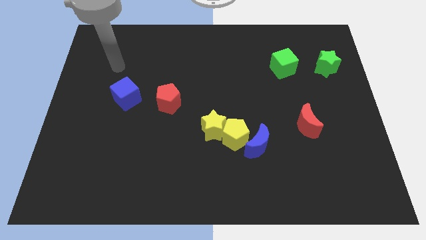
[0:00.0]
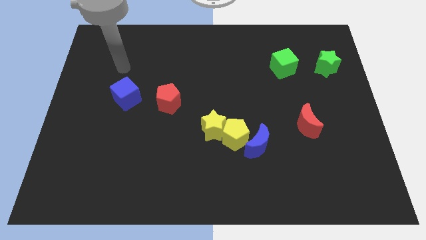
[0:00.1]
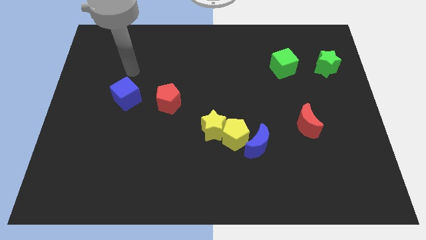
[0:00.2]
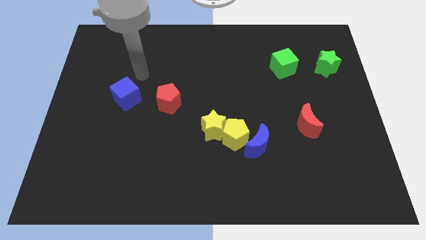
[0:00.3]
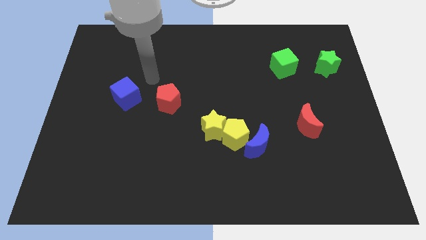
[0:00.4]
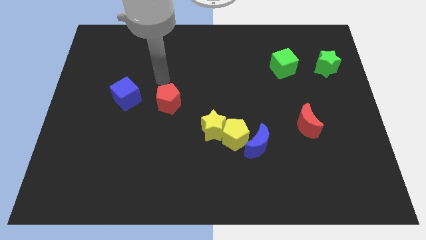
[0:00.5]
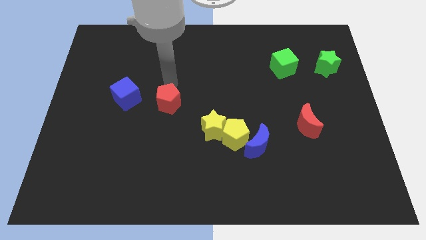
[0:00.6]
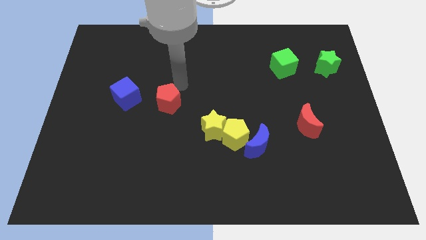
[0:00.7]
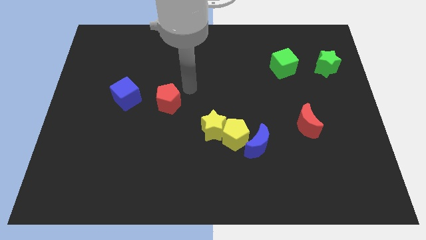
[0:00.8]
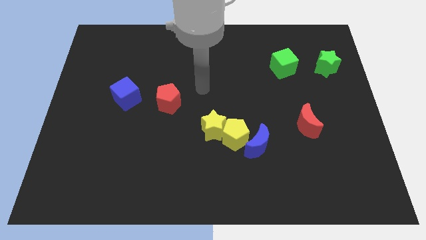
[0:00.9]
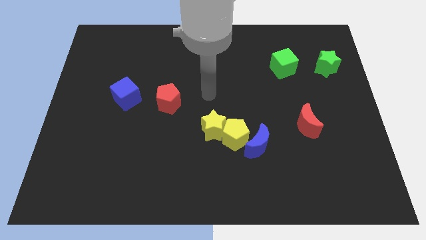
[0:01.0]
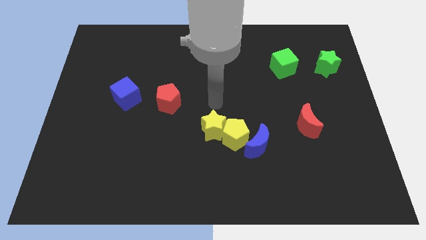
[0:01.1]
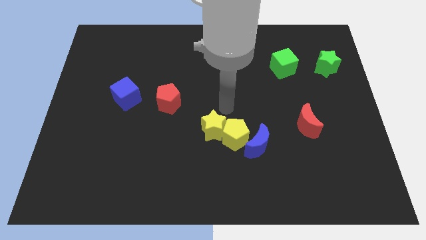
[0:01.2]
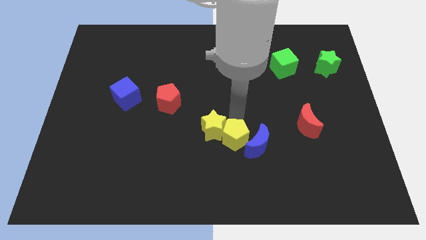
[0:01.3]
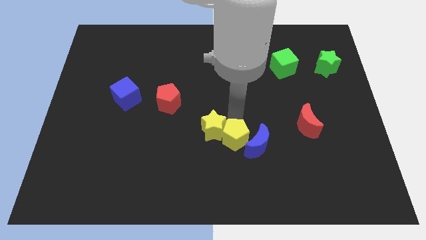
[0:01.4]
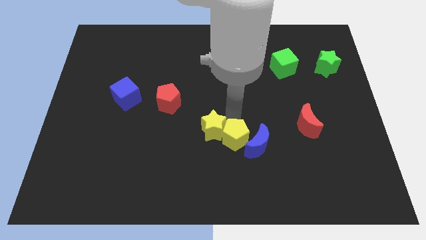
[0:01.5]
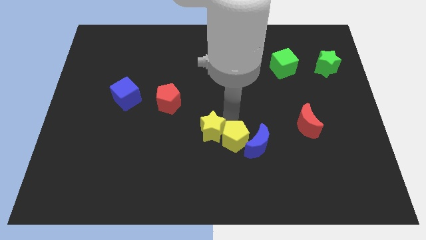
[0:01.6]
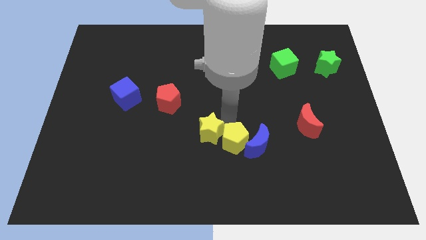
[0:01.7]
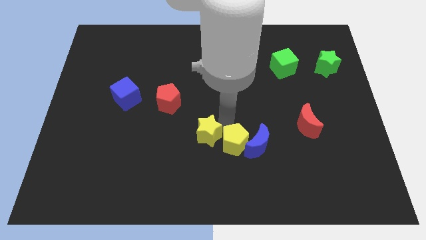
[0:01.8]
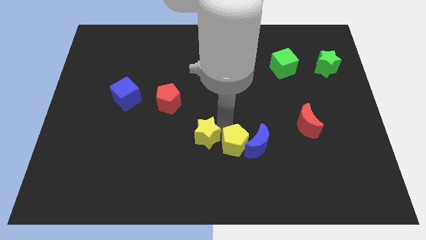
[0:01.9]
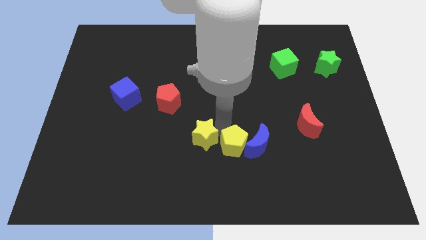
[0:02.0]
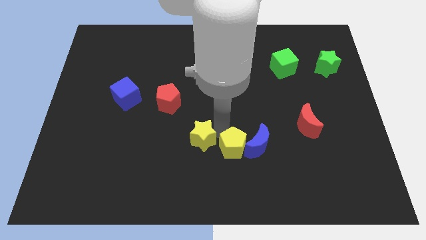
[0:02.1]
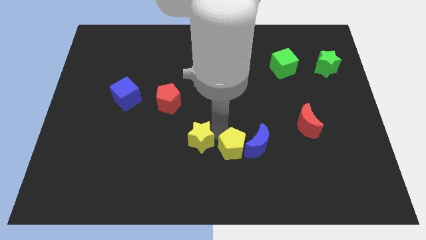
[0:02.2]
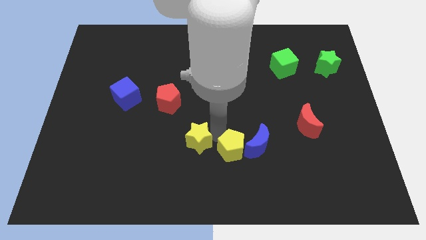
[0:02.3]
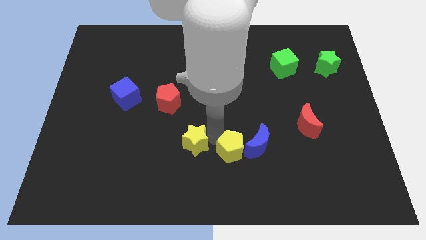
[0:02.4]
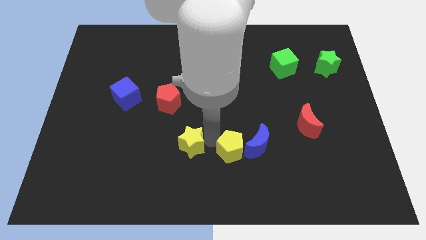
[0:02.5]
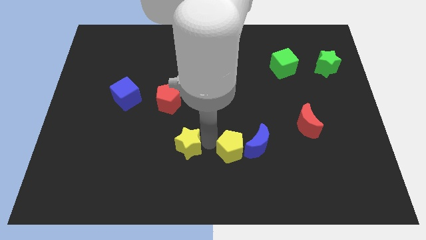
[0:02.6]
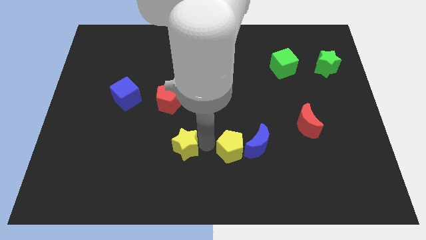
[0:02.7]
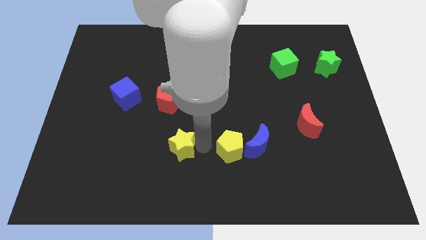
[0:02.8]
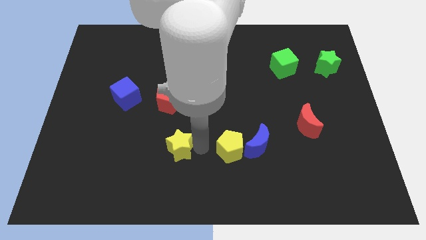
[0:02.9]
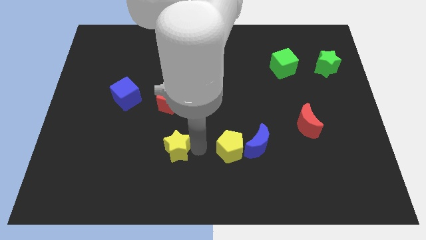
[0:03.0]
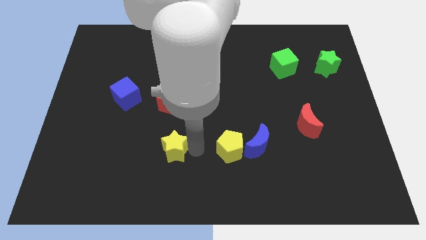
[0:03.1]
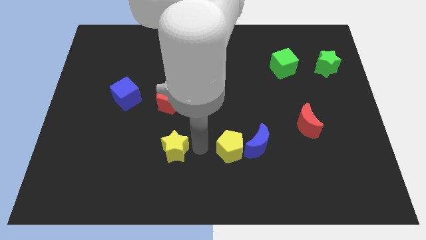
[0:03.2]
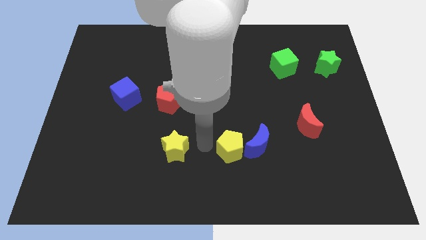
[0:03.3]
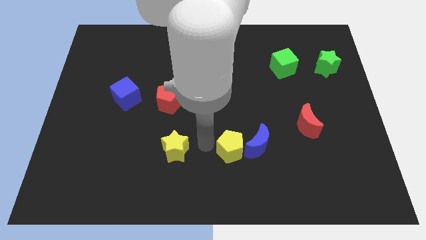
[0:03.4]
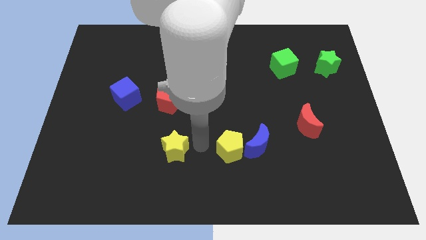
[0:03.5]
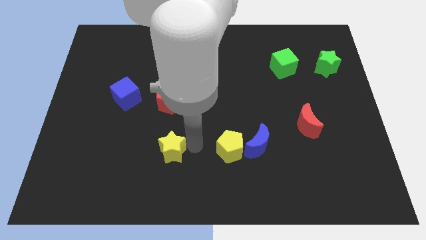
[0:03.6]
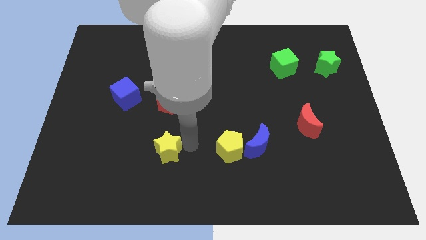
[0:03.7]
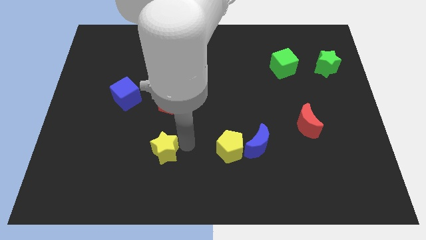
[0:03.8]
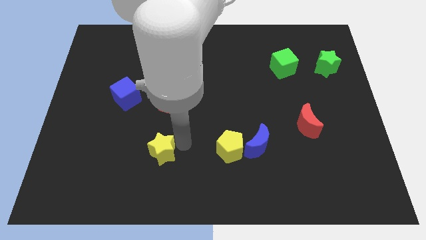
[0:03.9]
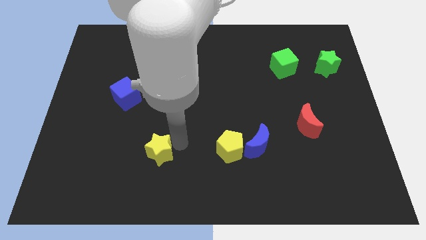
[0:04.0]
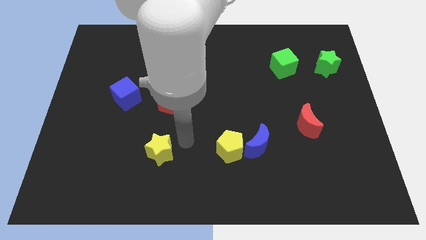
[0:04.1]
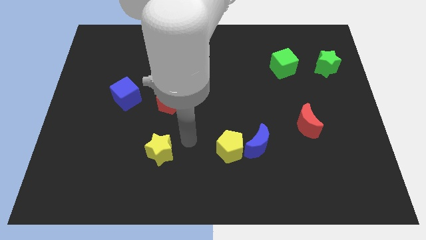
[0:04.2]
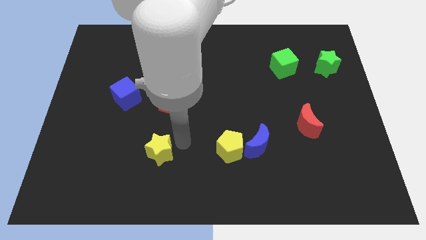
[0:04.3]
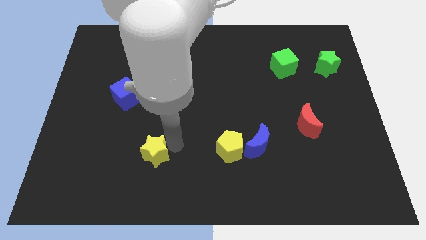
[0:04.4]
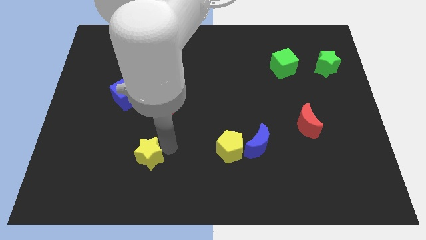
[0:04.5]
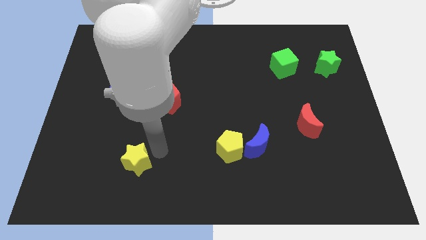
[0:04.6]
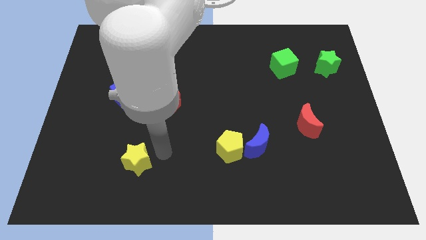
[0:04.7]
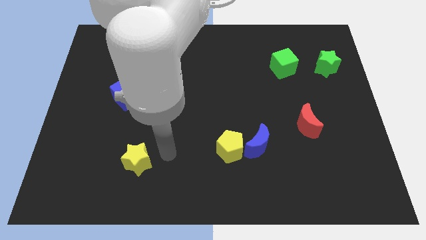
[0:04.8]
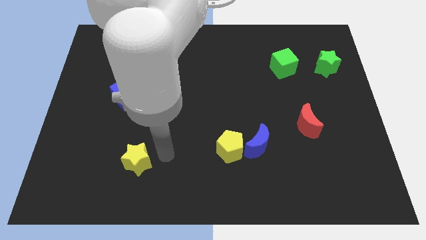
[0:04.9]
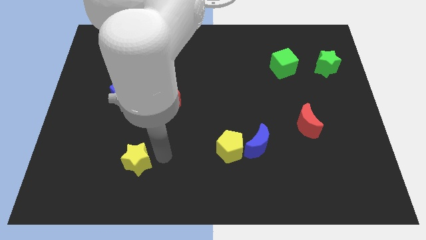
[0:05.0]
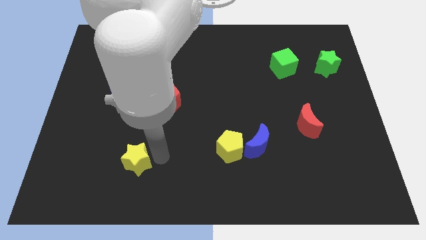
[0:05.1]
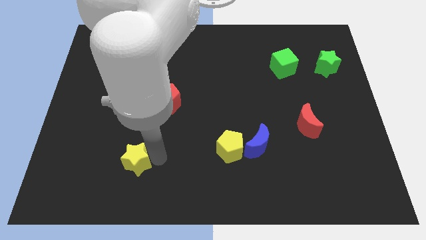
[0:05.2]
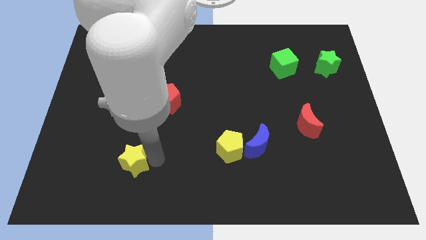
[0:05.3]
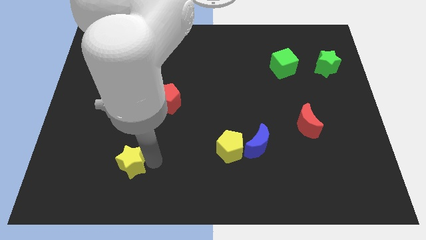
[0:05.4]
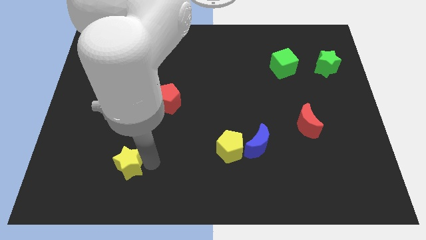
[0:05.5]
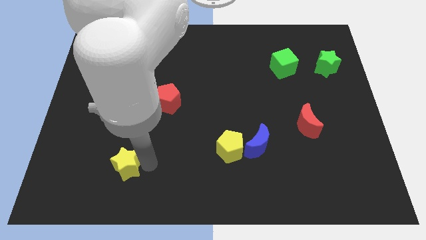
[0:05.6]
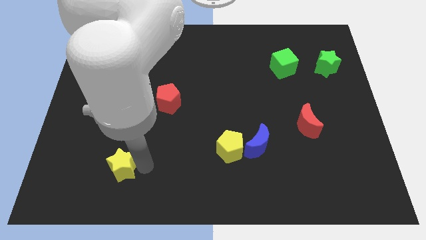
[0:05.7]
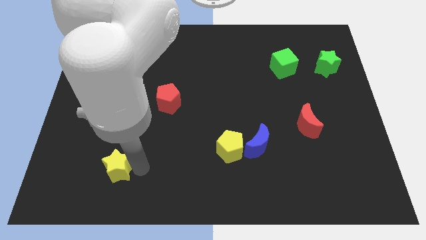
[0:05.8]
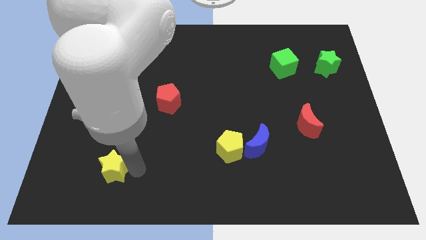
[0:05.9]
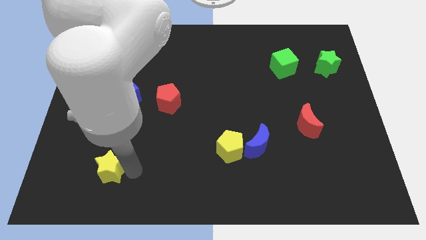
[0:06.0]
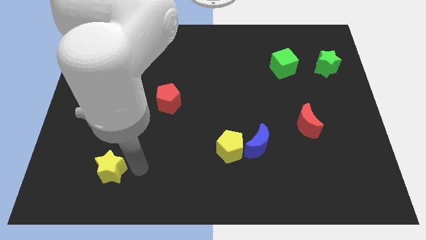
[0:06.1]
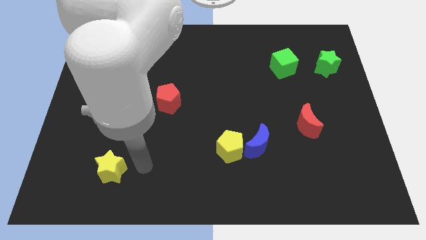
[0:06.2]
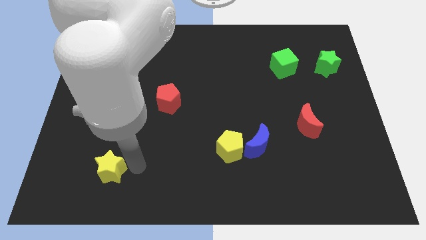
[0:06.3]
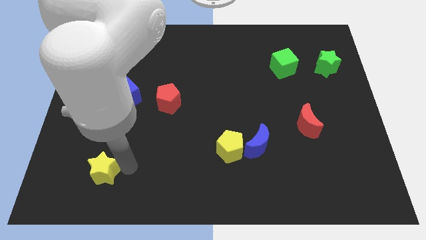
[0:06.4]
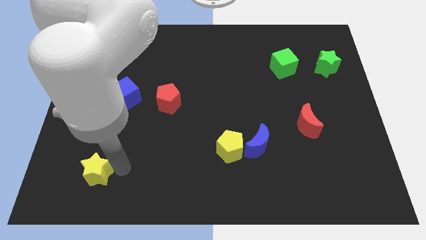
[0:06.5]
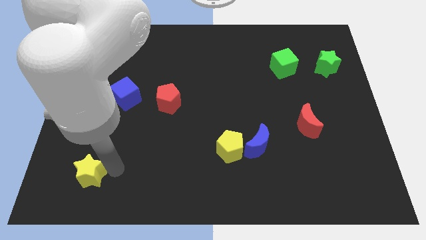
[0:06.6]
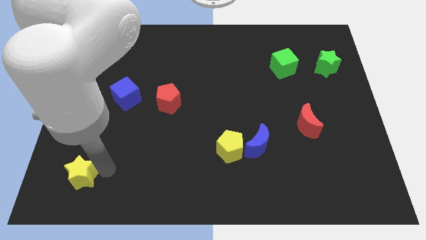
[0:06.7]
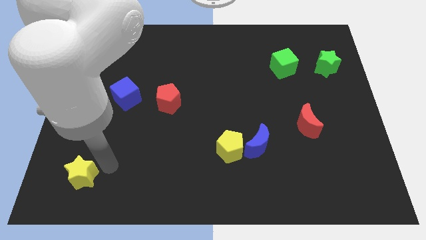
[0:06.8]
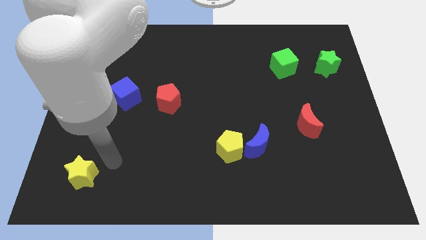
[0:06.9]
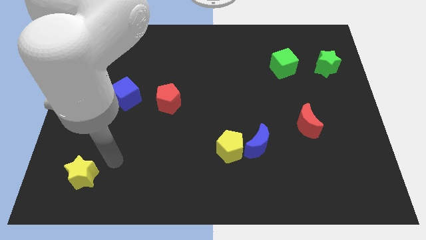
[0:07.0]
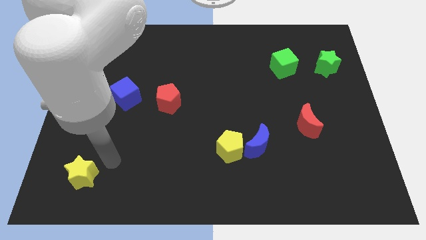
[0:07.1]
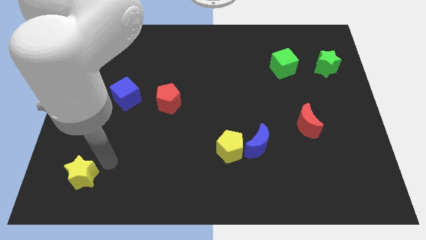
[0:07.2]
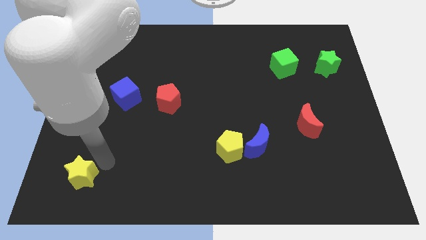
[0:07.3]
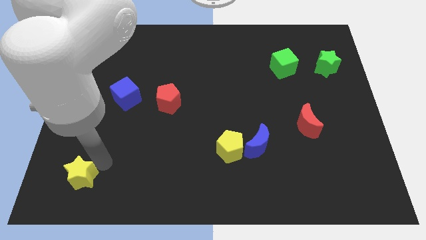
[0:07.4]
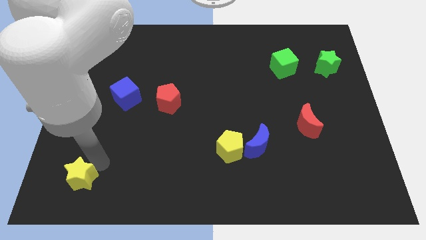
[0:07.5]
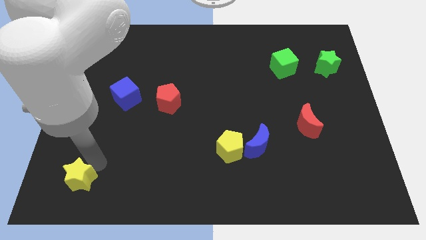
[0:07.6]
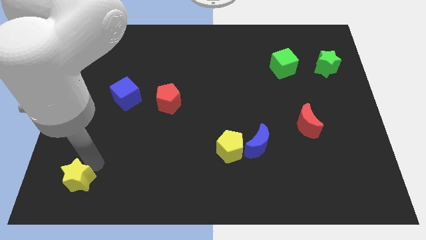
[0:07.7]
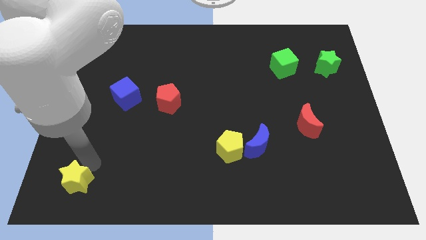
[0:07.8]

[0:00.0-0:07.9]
move the yellow star to the bottom left of the board
